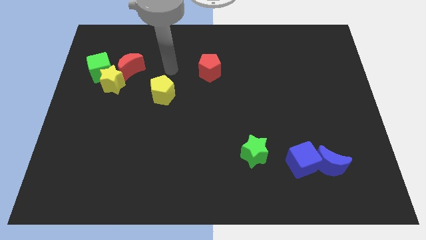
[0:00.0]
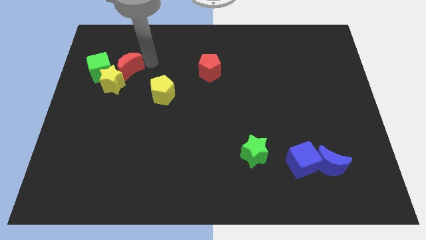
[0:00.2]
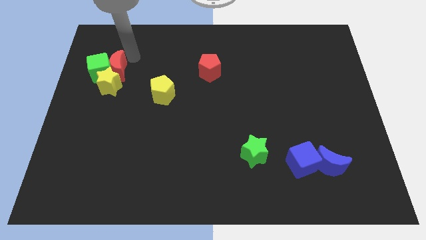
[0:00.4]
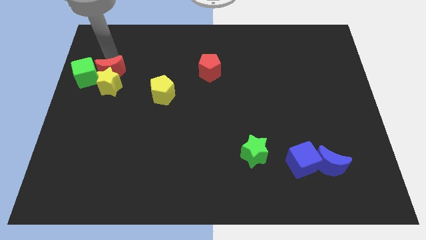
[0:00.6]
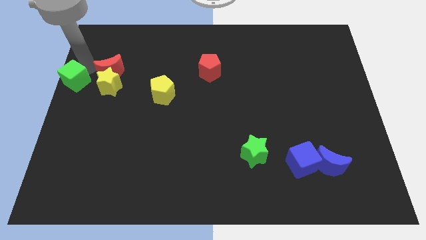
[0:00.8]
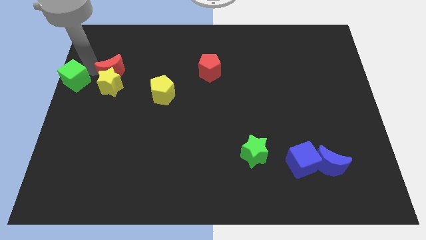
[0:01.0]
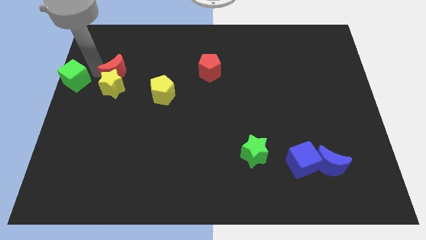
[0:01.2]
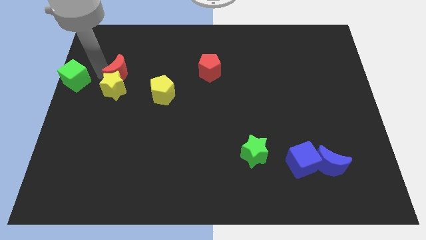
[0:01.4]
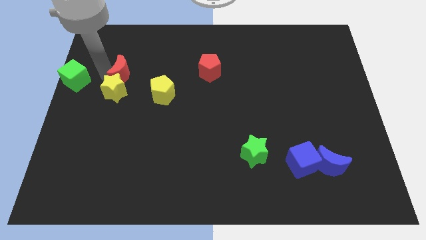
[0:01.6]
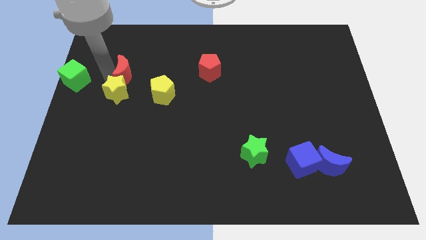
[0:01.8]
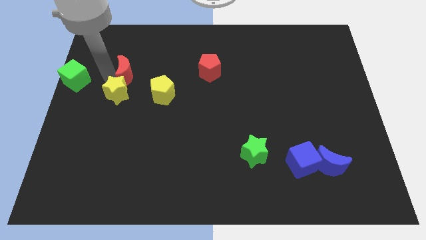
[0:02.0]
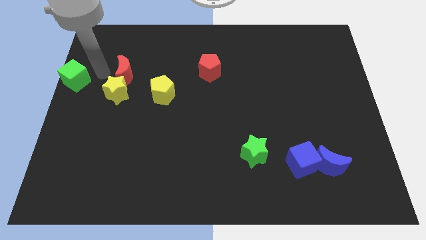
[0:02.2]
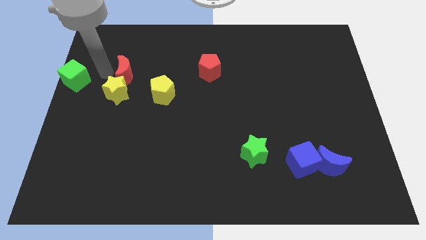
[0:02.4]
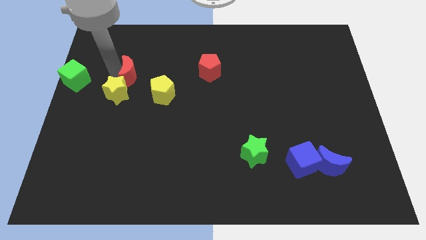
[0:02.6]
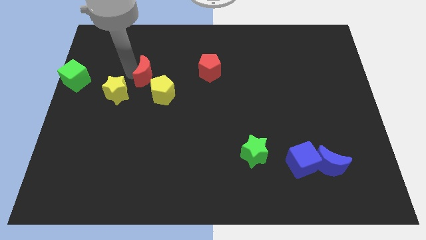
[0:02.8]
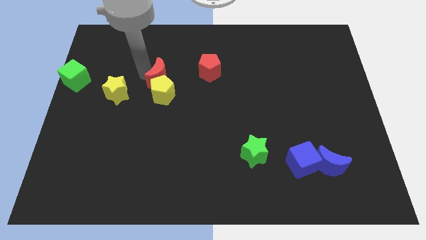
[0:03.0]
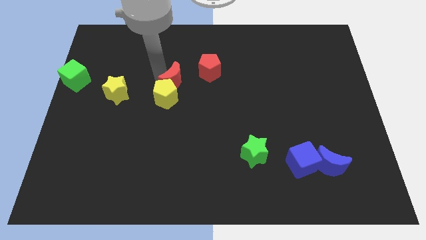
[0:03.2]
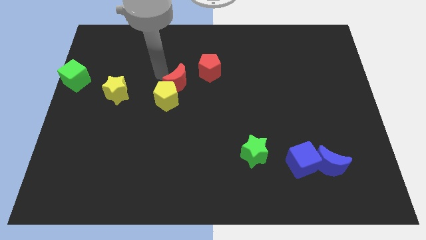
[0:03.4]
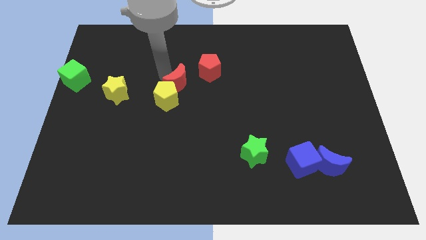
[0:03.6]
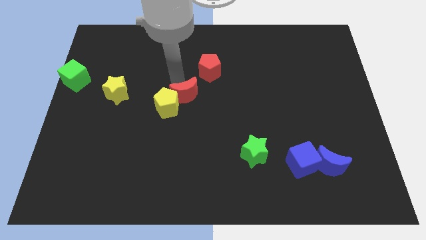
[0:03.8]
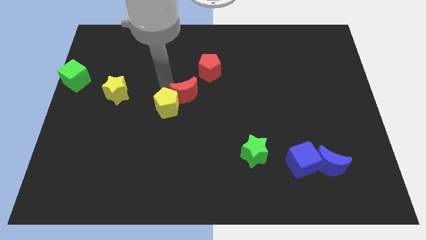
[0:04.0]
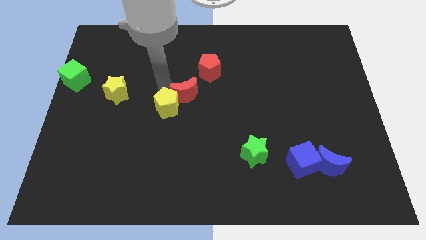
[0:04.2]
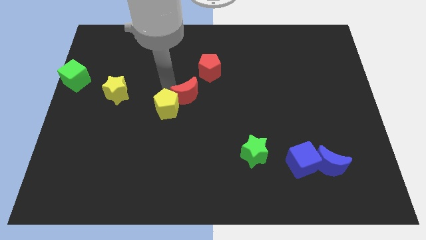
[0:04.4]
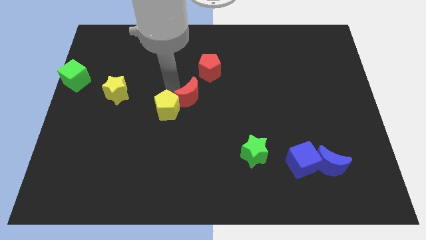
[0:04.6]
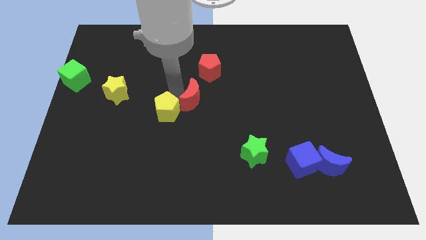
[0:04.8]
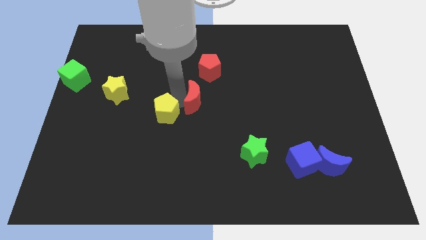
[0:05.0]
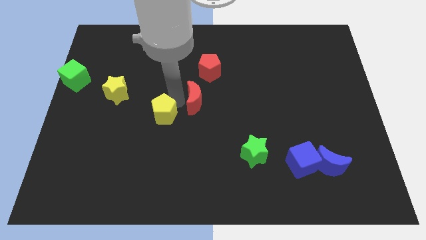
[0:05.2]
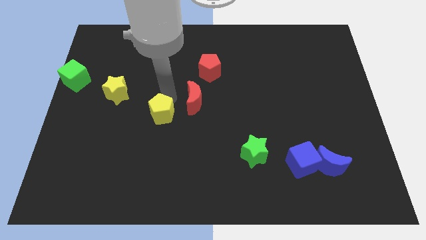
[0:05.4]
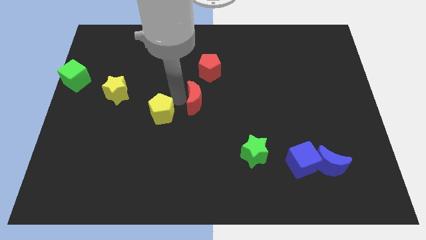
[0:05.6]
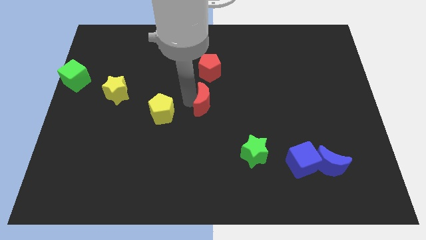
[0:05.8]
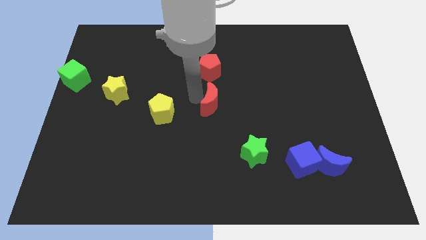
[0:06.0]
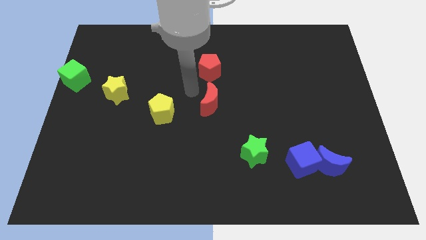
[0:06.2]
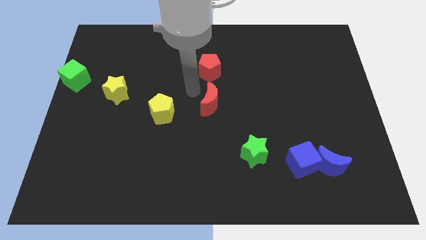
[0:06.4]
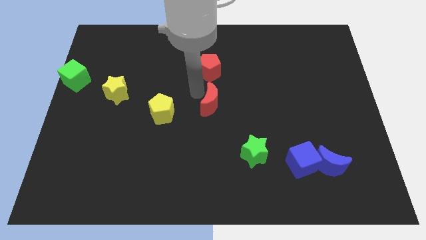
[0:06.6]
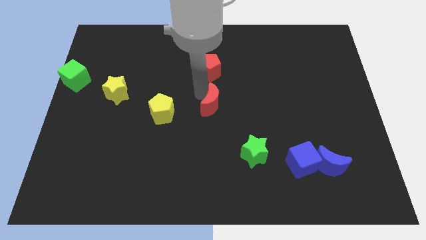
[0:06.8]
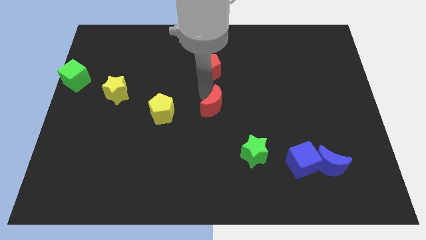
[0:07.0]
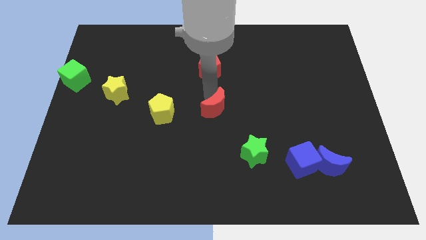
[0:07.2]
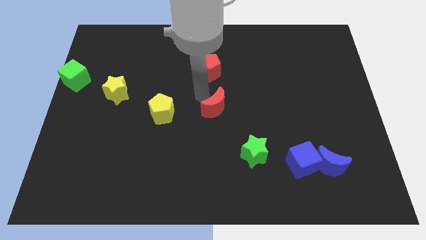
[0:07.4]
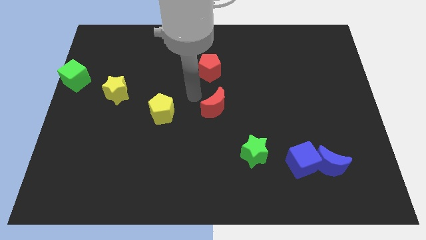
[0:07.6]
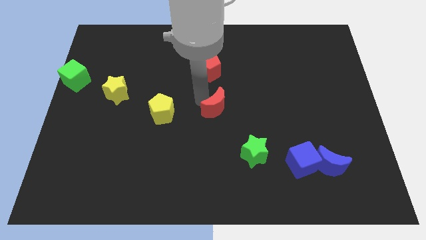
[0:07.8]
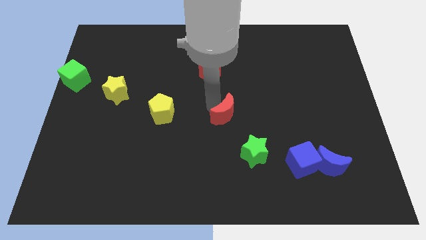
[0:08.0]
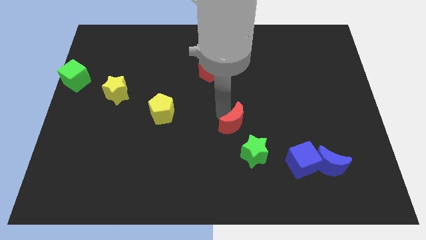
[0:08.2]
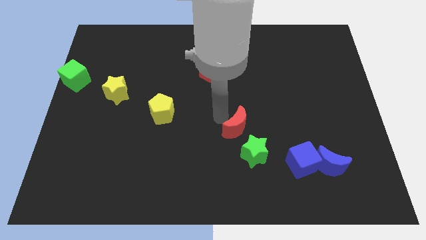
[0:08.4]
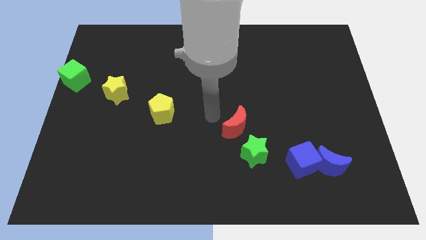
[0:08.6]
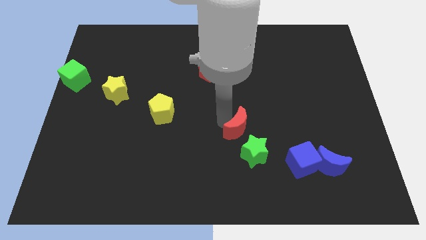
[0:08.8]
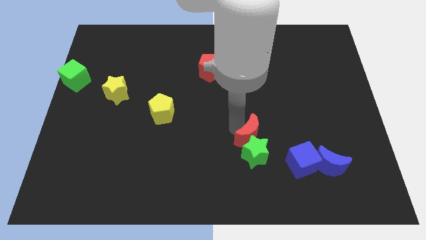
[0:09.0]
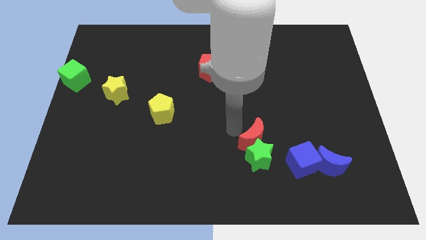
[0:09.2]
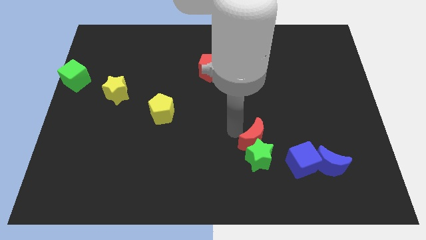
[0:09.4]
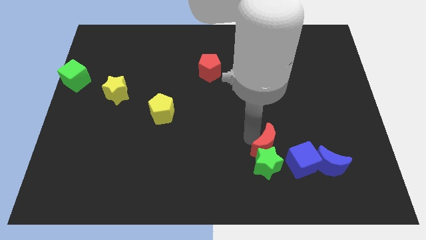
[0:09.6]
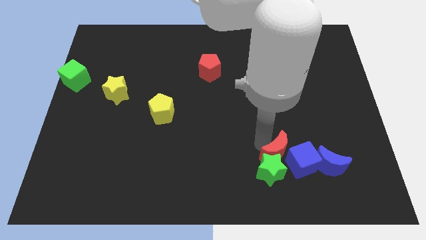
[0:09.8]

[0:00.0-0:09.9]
slide the red moon towards the blue cube

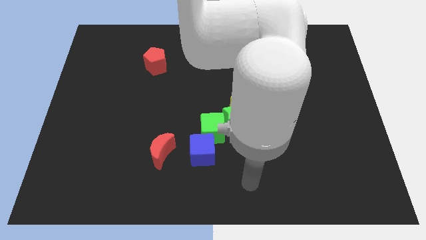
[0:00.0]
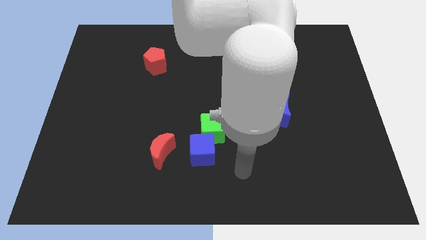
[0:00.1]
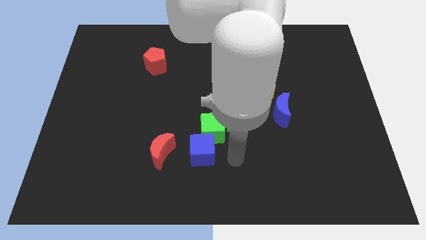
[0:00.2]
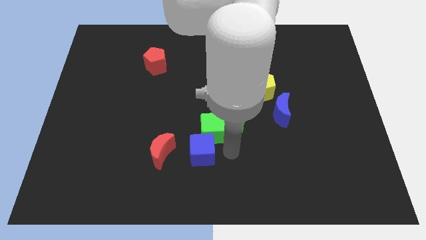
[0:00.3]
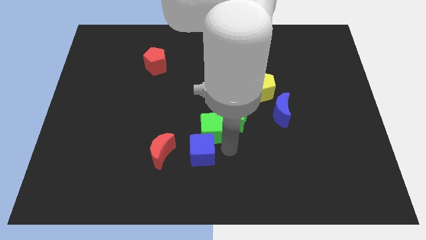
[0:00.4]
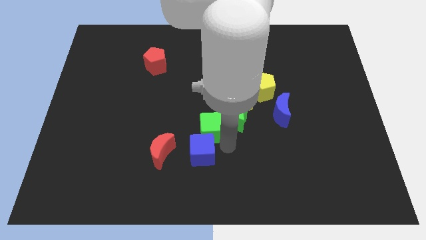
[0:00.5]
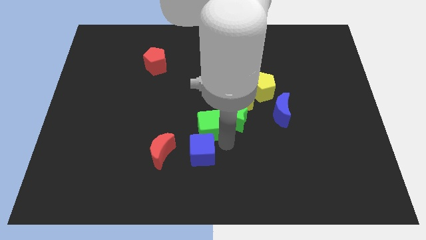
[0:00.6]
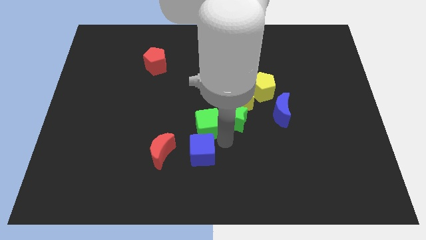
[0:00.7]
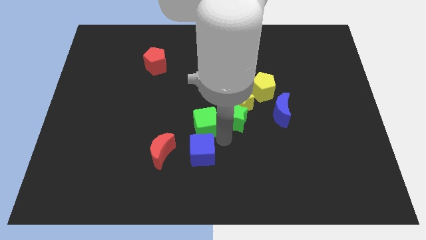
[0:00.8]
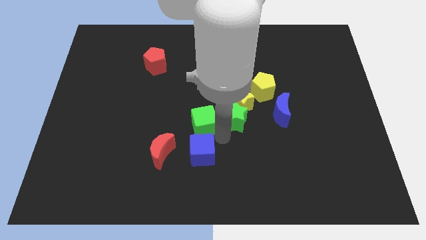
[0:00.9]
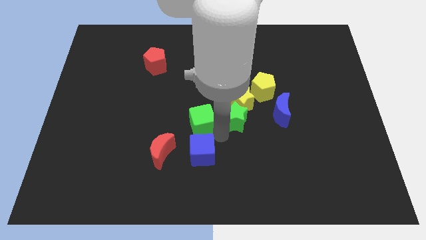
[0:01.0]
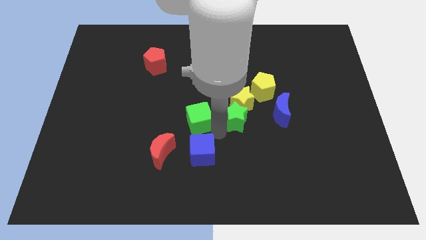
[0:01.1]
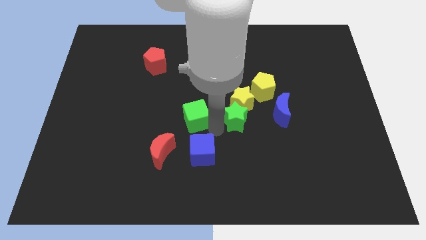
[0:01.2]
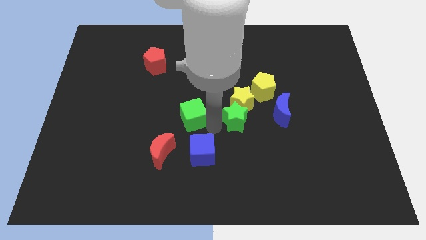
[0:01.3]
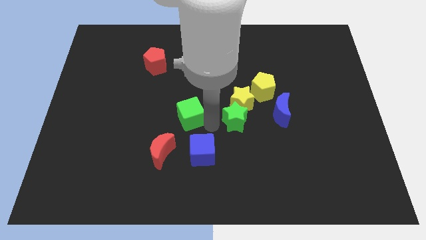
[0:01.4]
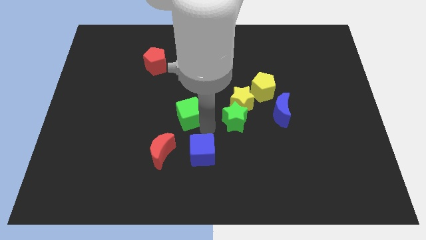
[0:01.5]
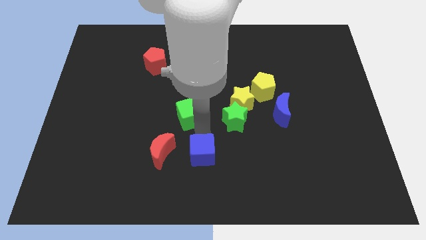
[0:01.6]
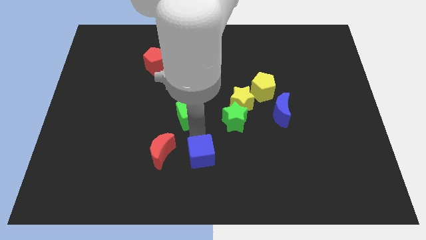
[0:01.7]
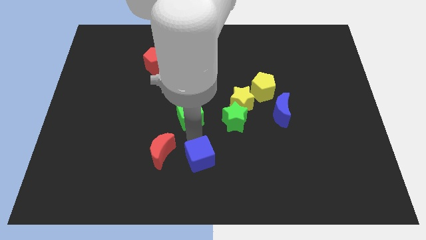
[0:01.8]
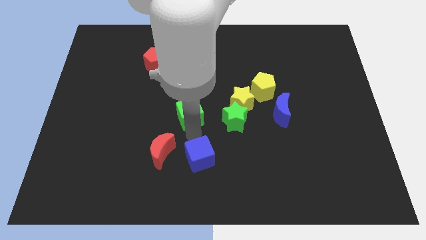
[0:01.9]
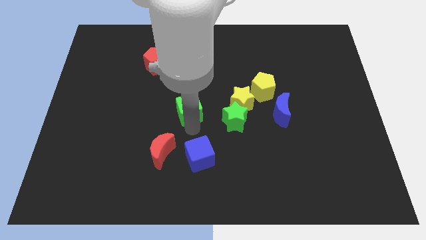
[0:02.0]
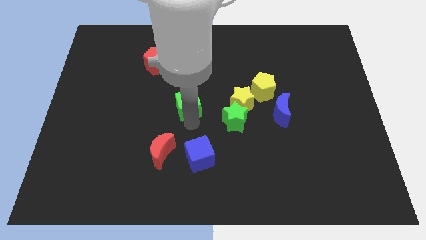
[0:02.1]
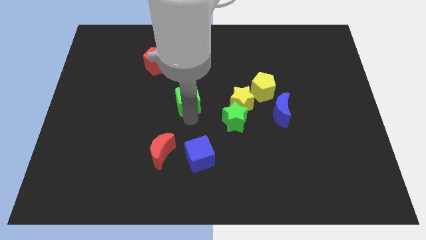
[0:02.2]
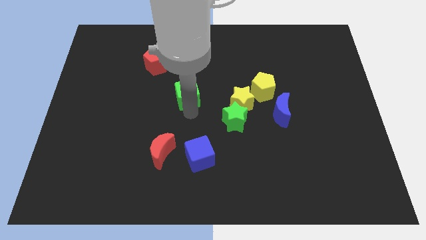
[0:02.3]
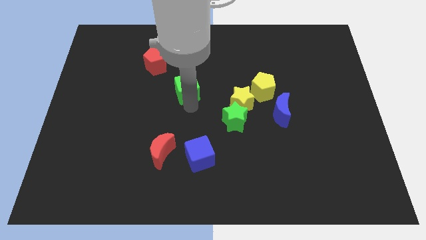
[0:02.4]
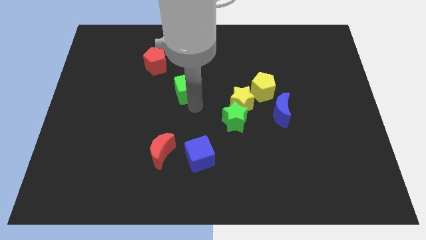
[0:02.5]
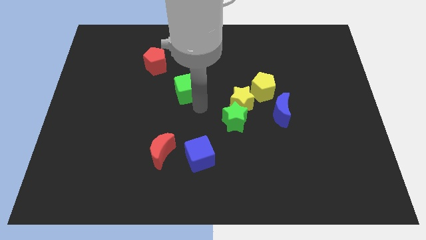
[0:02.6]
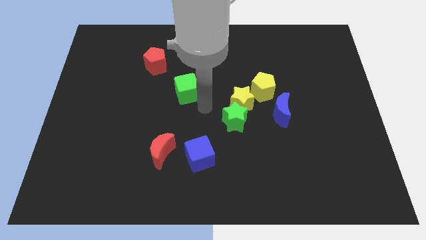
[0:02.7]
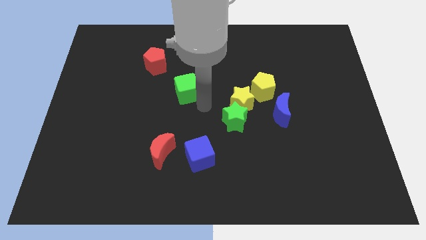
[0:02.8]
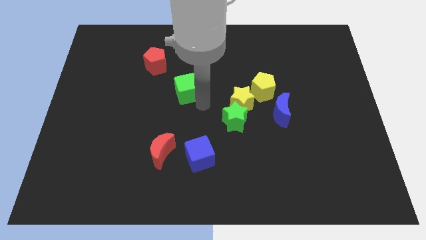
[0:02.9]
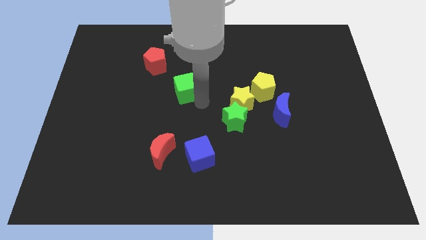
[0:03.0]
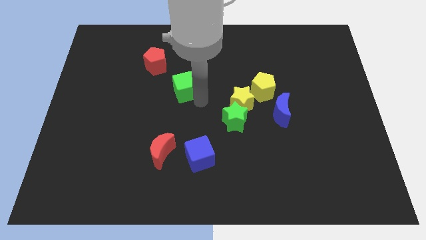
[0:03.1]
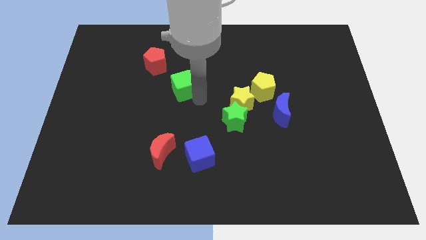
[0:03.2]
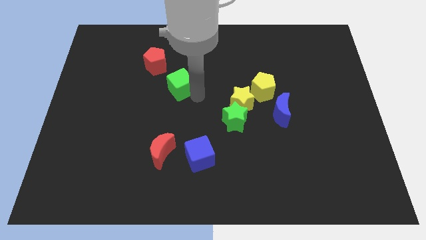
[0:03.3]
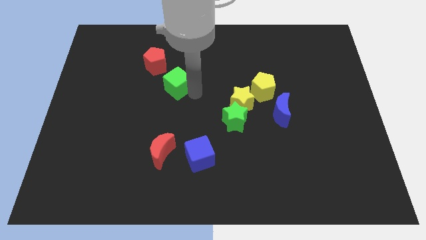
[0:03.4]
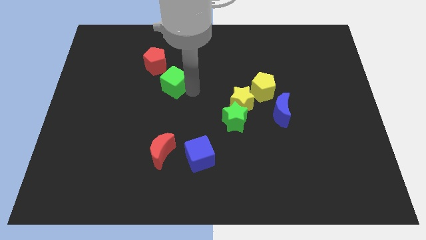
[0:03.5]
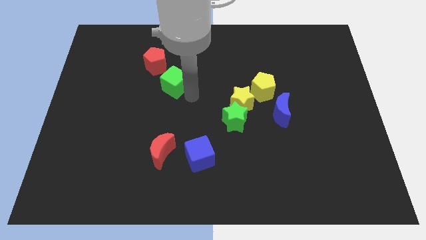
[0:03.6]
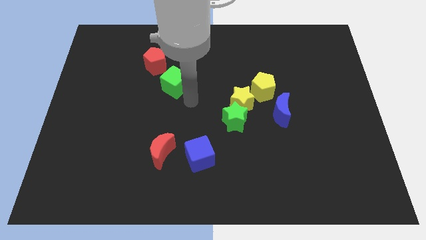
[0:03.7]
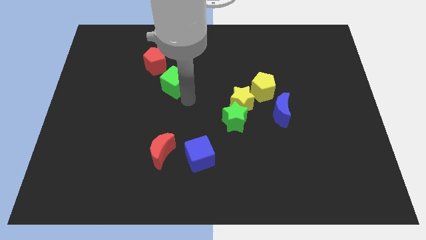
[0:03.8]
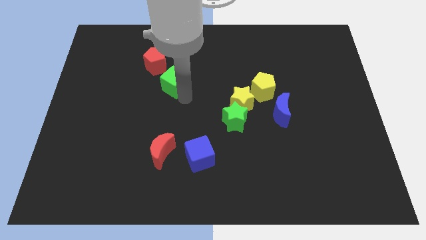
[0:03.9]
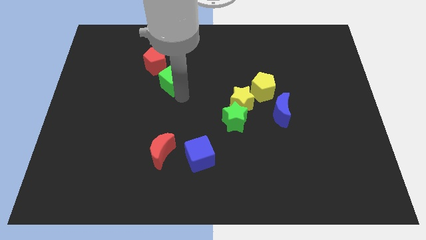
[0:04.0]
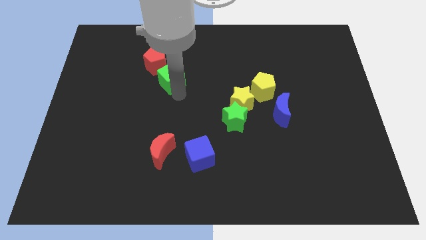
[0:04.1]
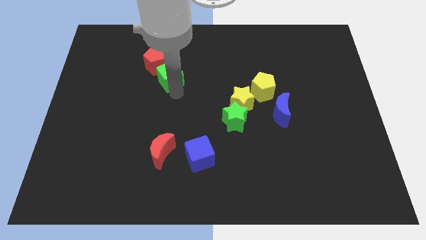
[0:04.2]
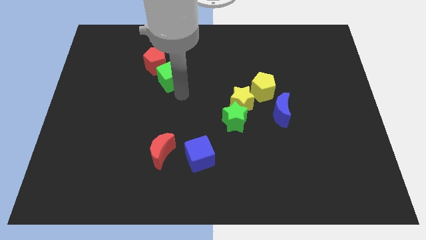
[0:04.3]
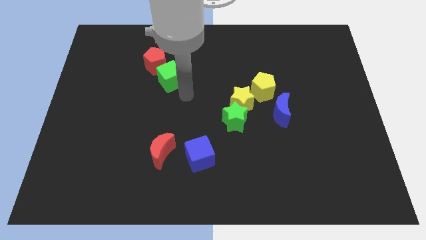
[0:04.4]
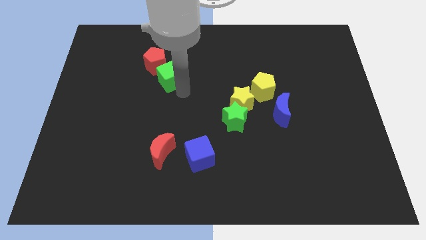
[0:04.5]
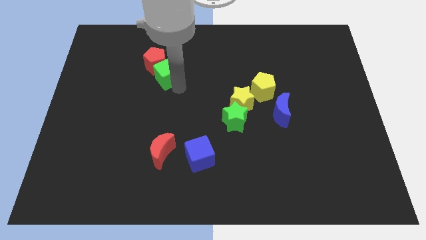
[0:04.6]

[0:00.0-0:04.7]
move the green cube to the red pentagon
